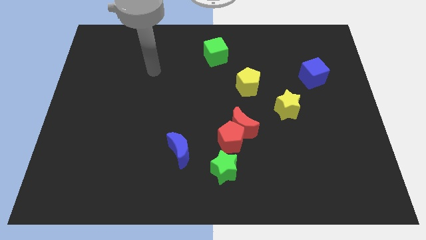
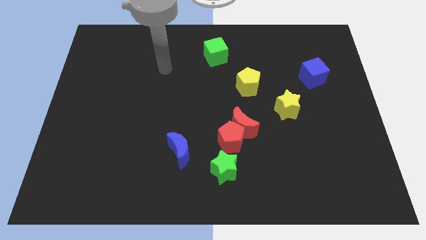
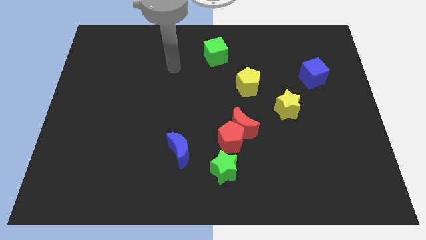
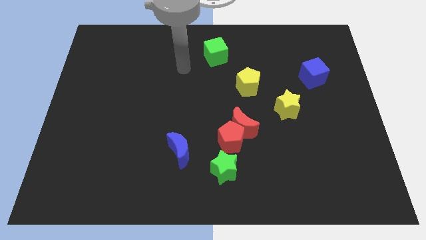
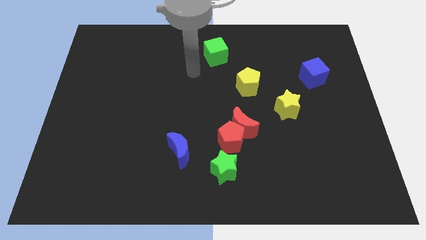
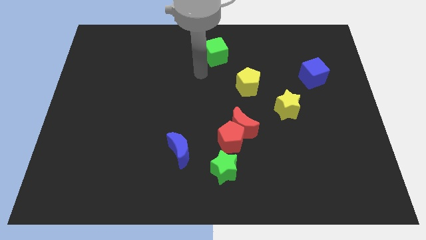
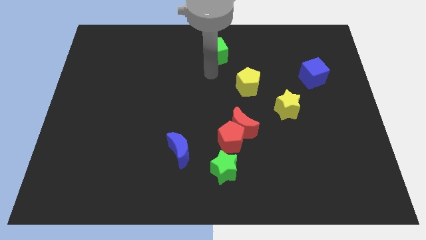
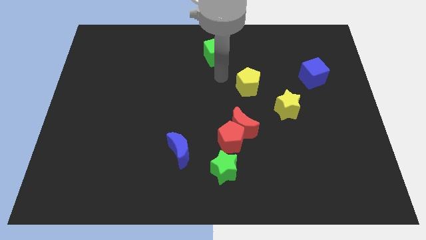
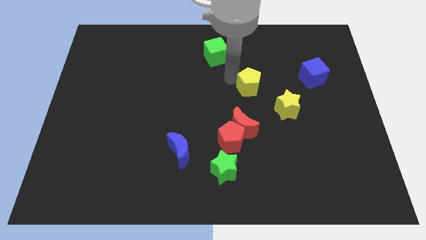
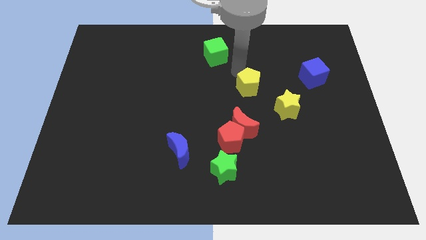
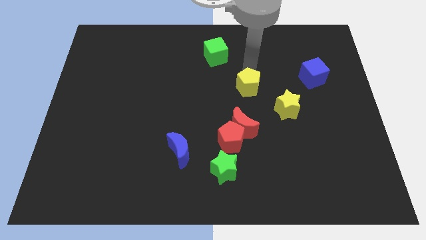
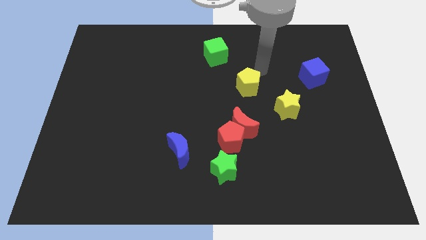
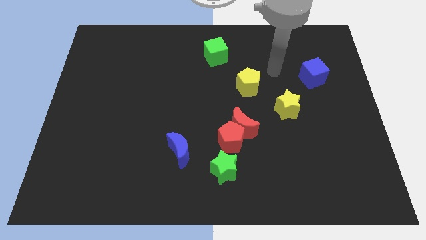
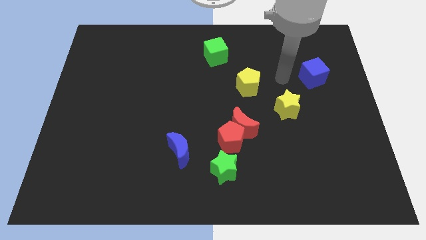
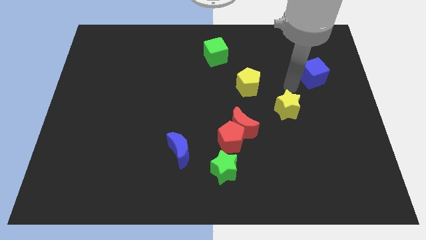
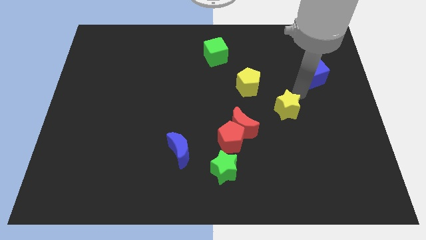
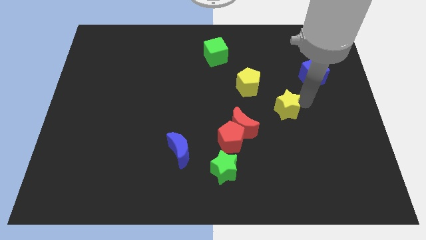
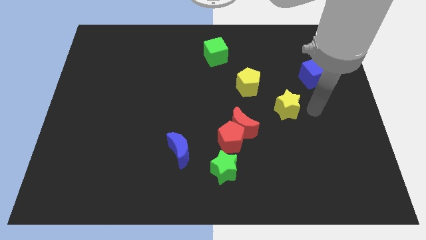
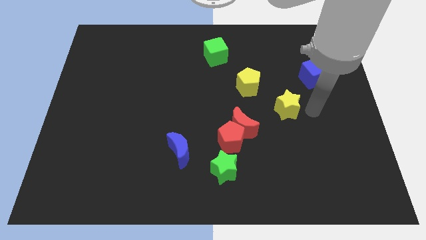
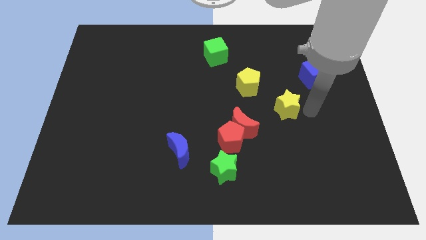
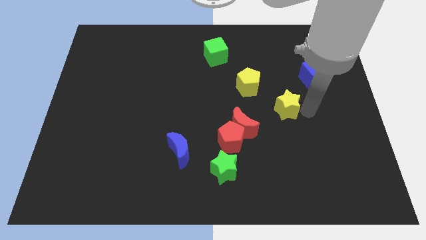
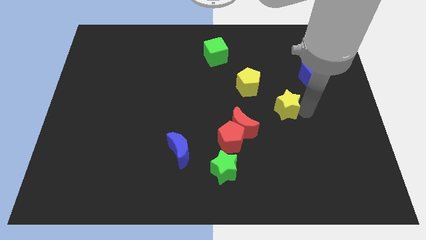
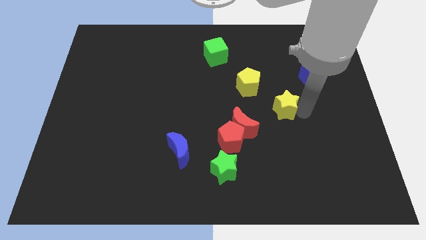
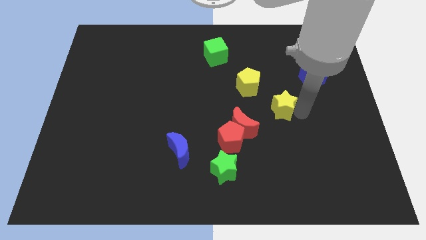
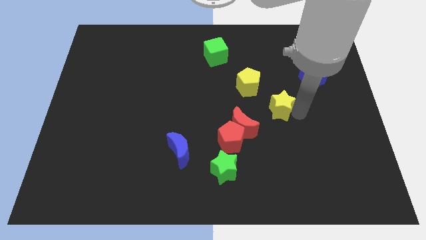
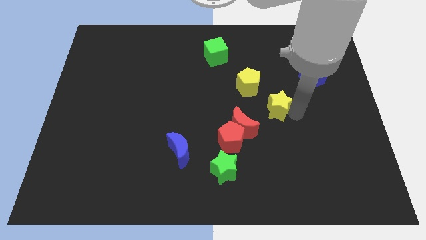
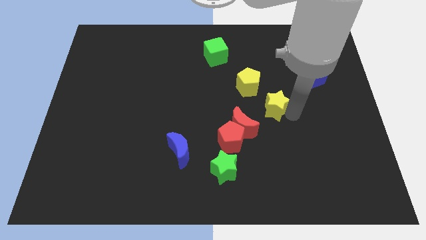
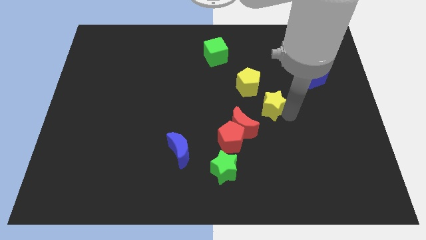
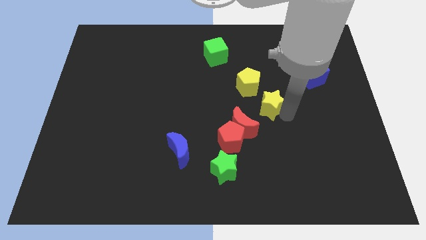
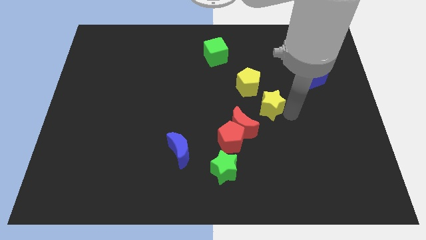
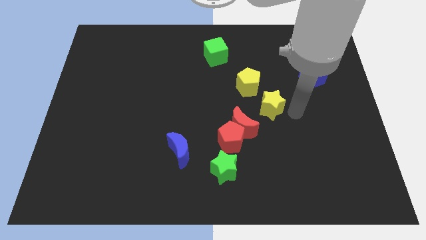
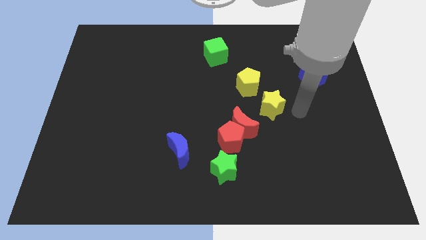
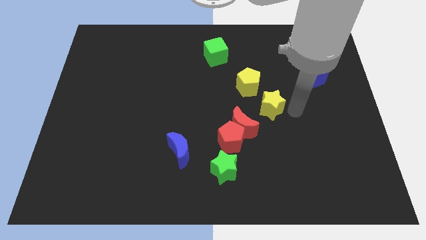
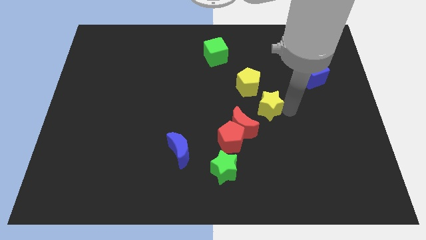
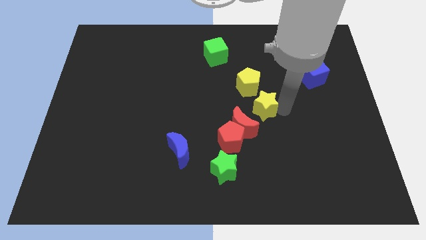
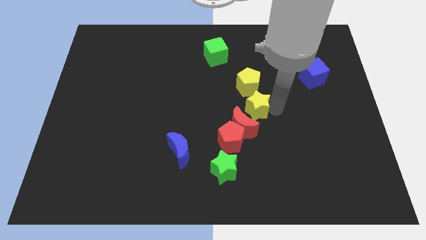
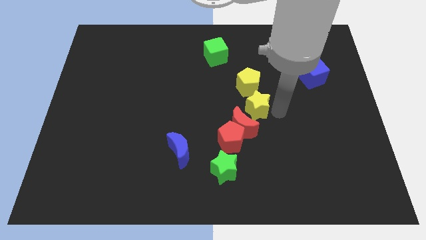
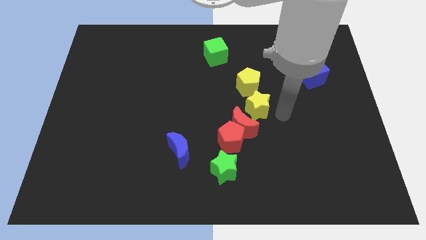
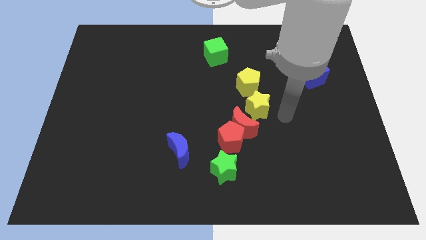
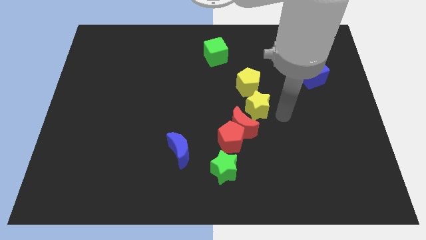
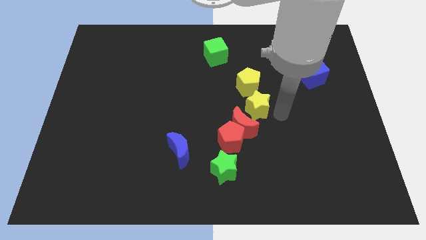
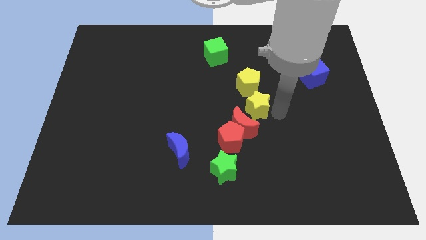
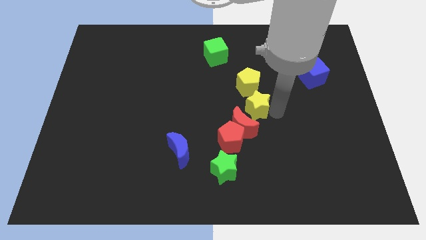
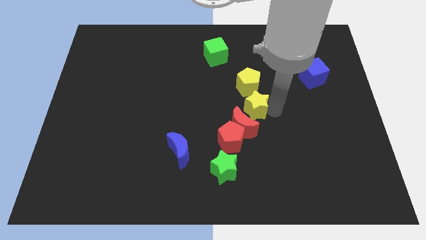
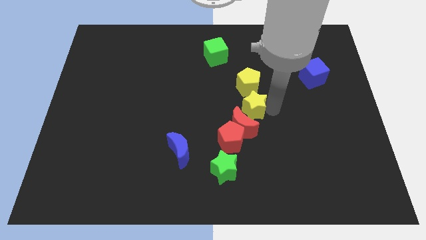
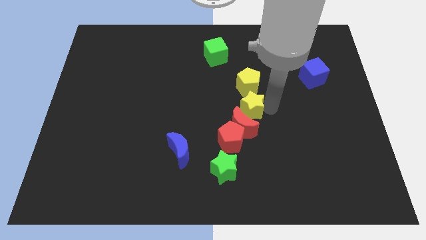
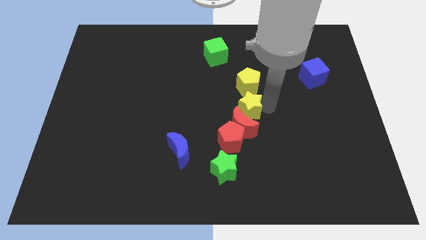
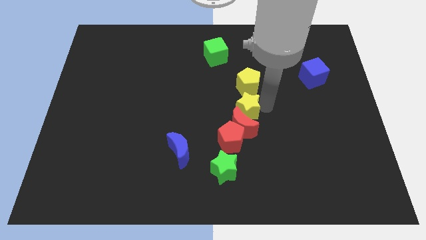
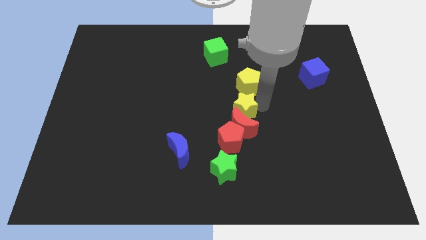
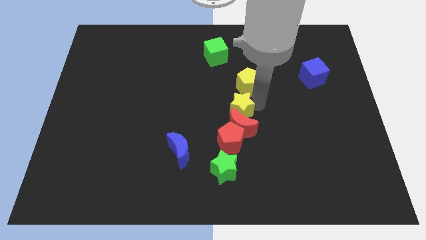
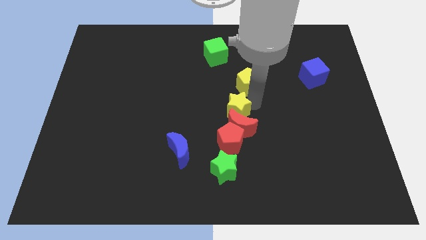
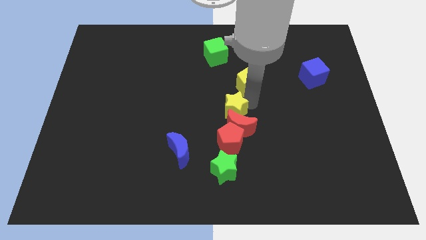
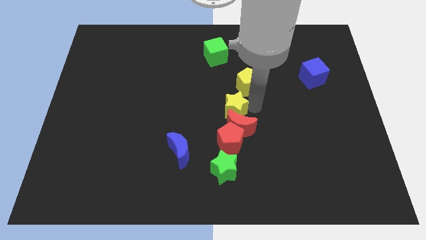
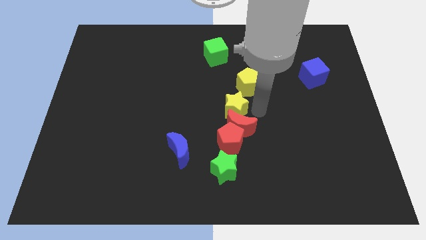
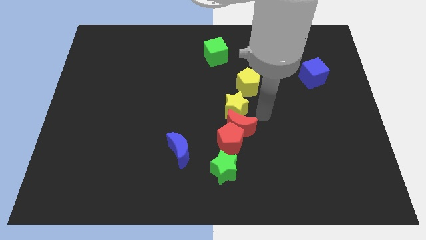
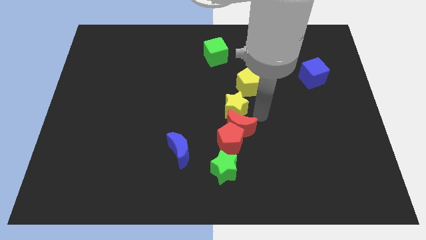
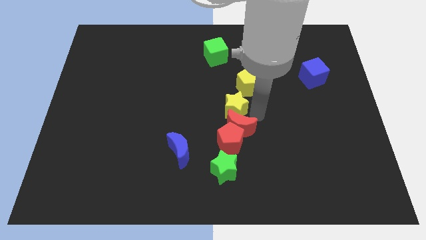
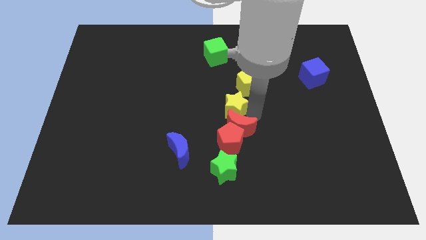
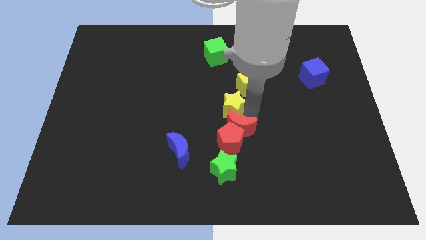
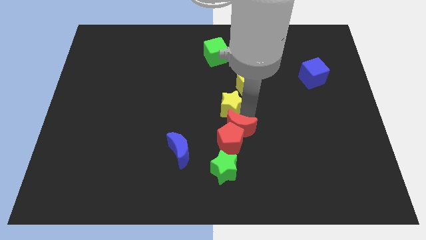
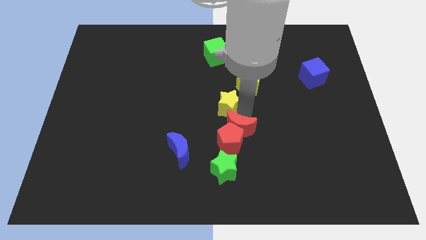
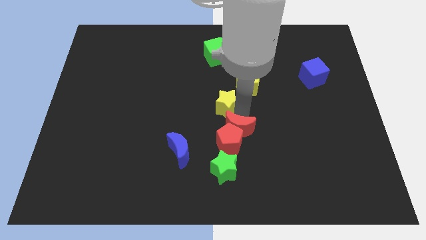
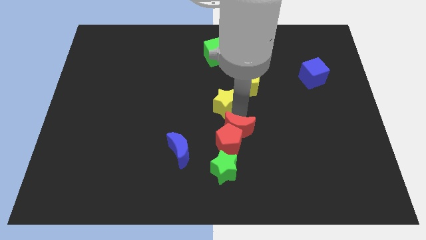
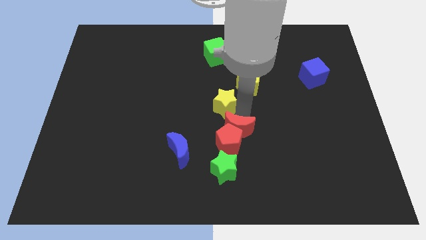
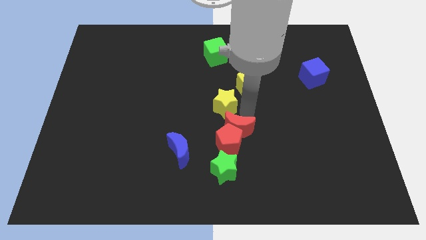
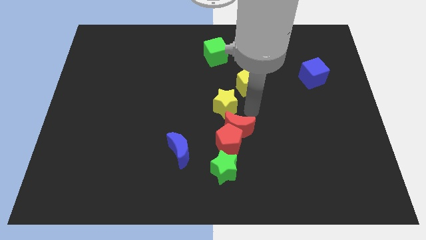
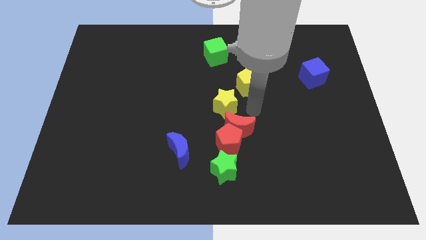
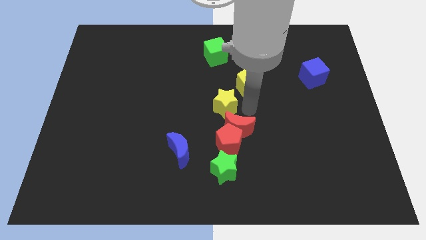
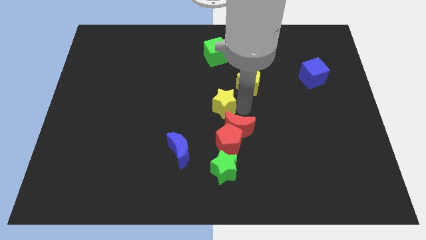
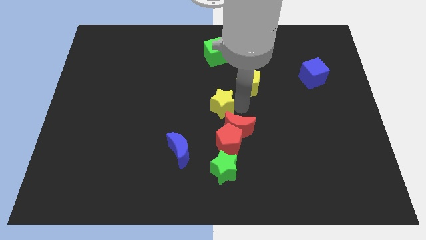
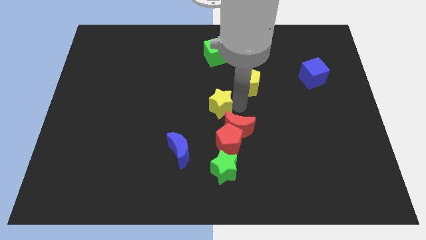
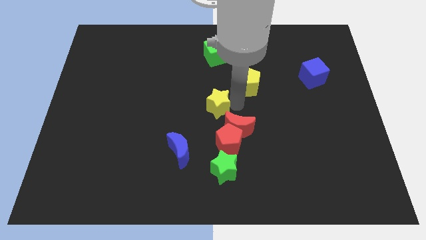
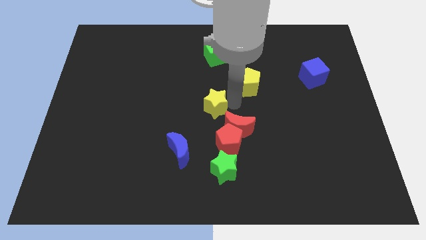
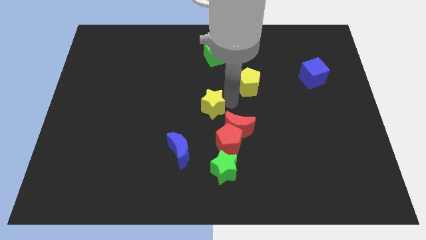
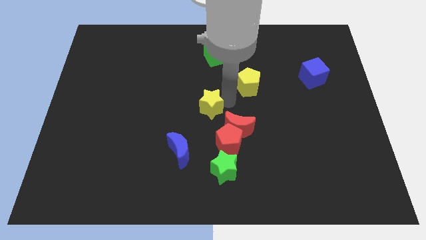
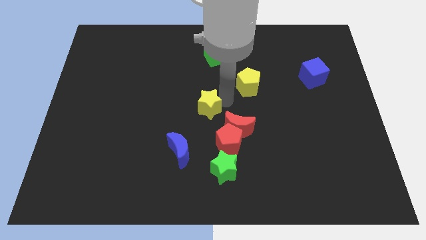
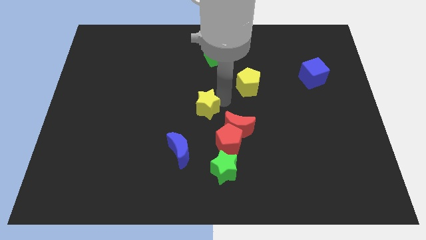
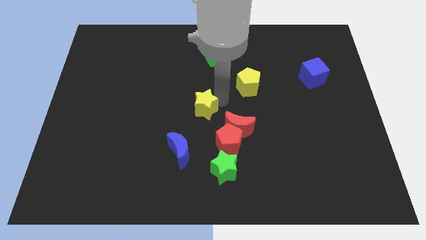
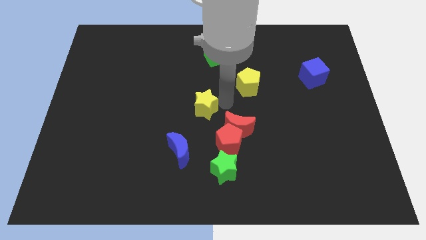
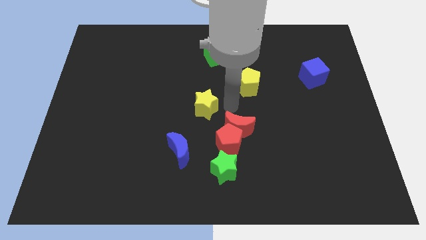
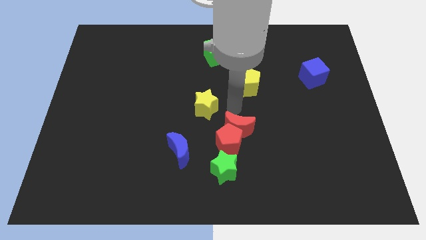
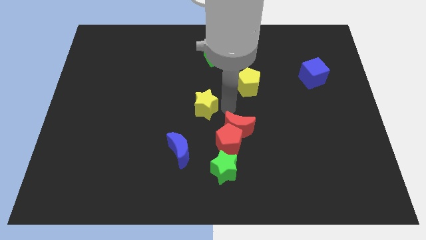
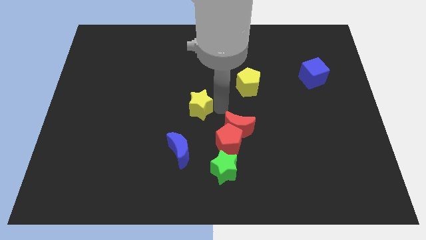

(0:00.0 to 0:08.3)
move the yellow star left
